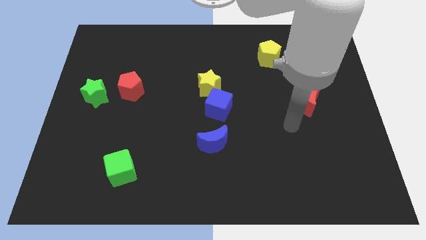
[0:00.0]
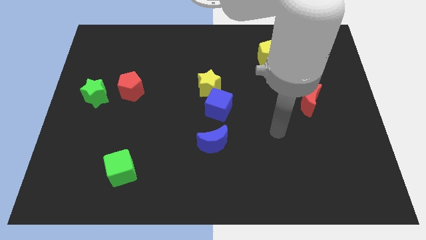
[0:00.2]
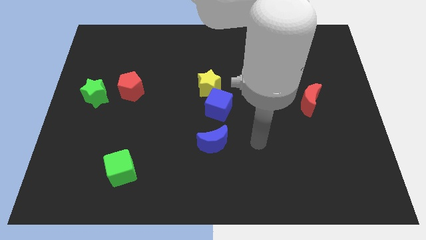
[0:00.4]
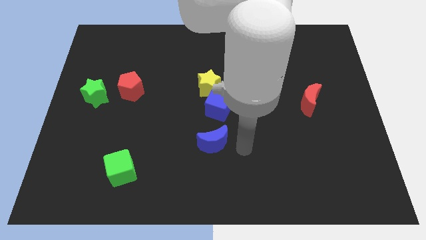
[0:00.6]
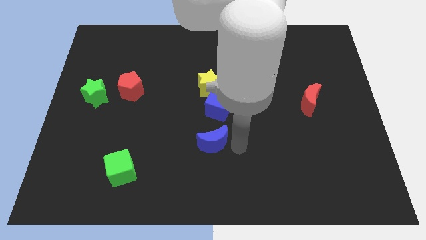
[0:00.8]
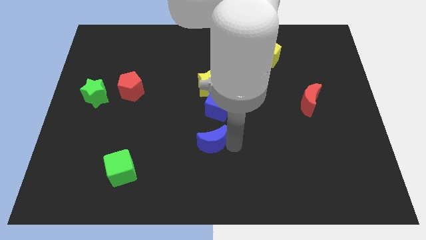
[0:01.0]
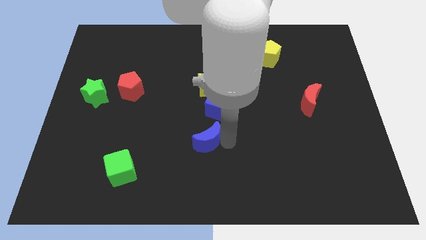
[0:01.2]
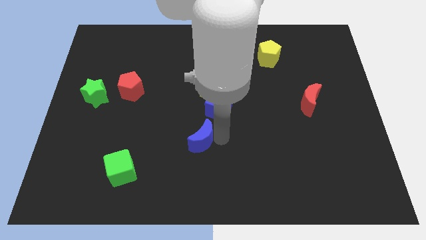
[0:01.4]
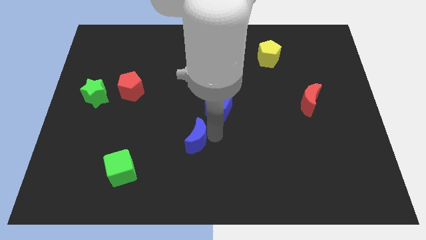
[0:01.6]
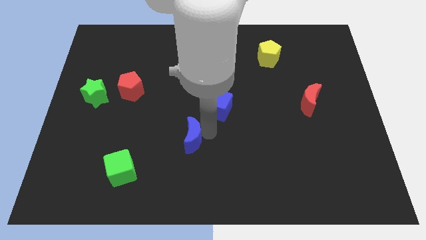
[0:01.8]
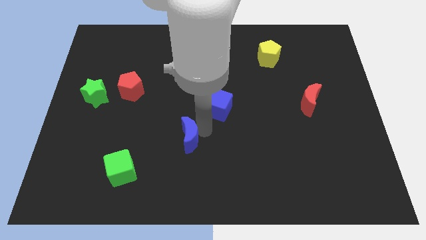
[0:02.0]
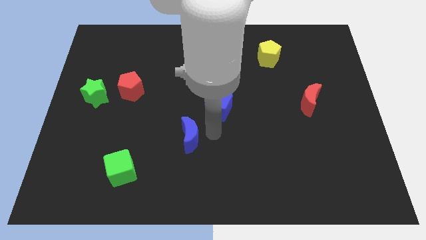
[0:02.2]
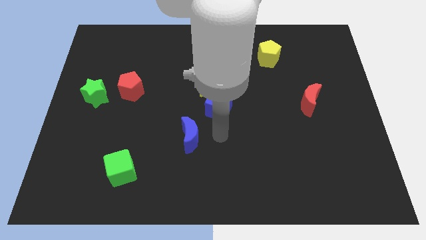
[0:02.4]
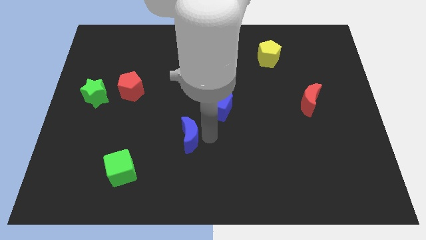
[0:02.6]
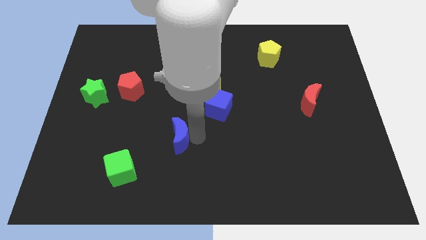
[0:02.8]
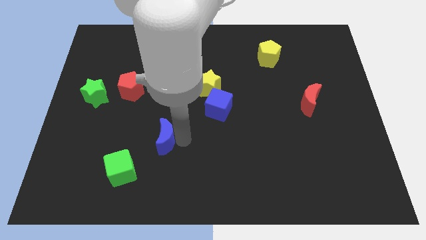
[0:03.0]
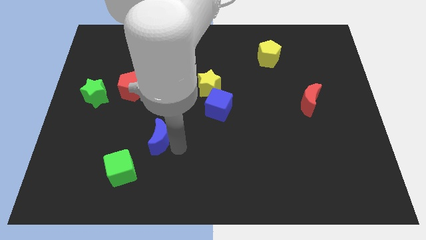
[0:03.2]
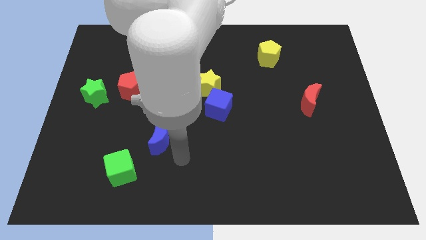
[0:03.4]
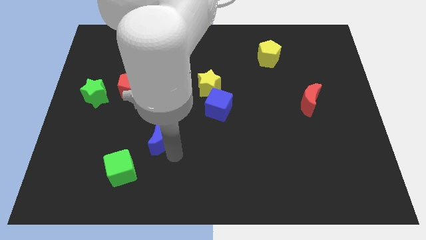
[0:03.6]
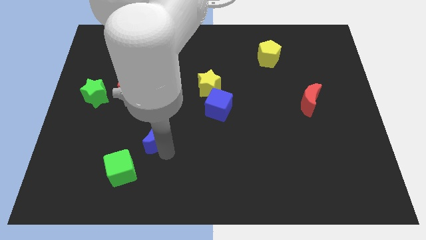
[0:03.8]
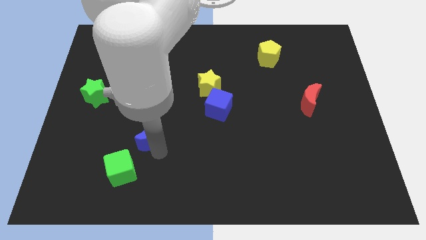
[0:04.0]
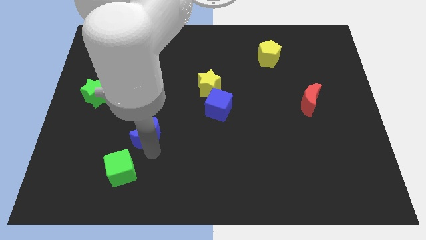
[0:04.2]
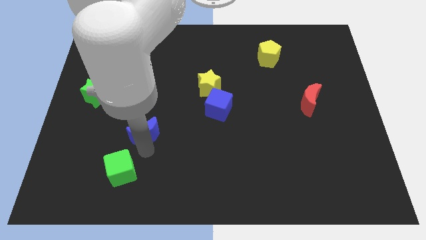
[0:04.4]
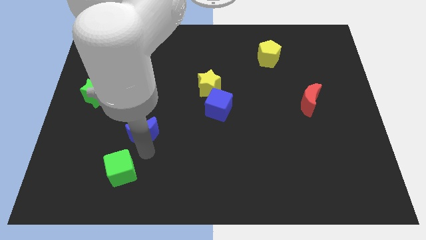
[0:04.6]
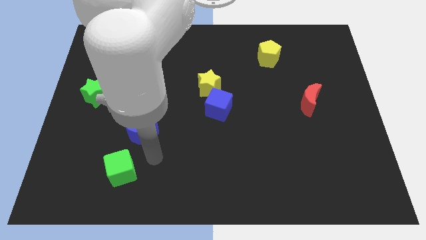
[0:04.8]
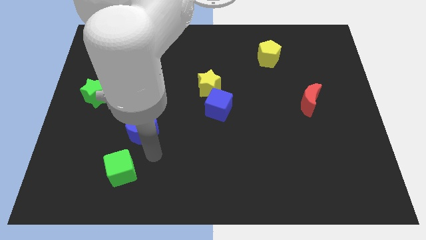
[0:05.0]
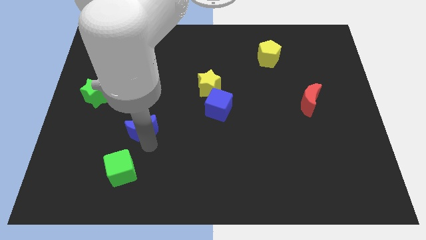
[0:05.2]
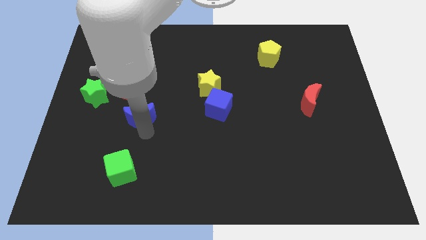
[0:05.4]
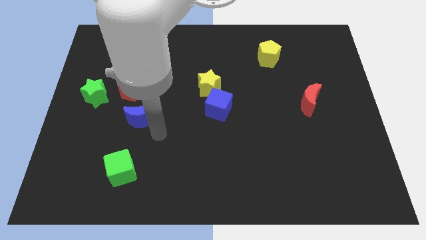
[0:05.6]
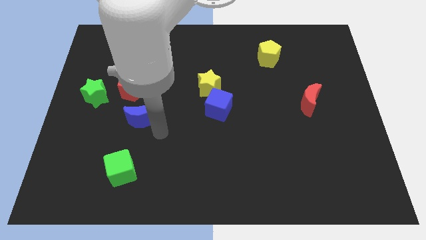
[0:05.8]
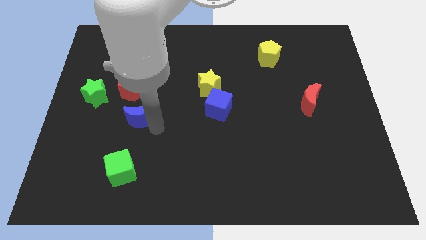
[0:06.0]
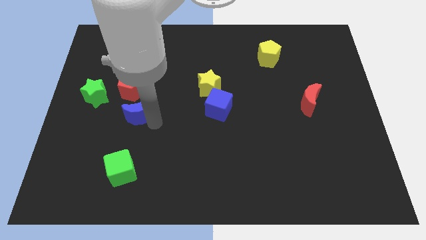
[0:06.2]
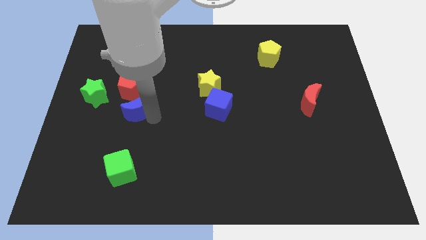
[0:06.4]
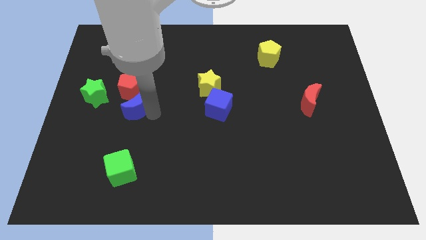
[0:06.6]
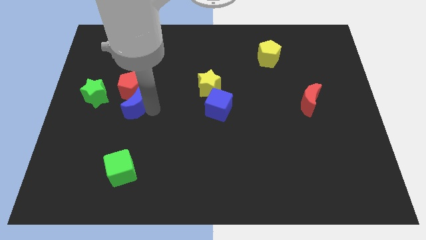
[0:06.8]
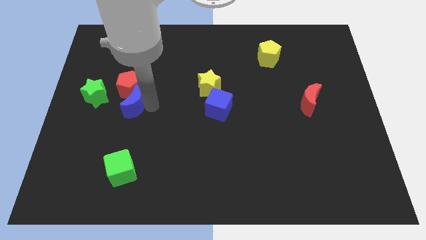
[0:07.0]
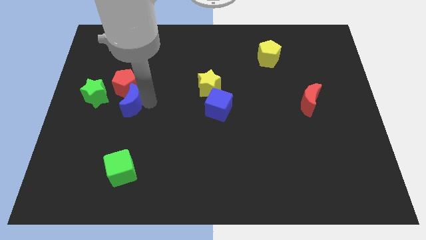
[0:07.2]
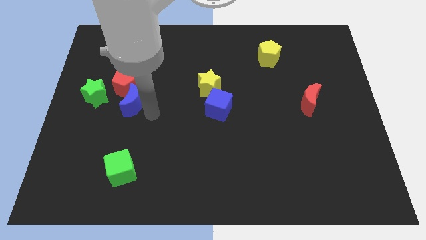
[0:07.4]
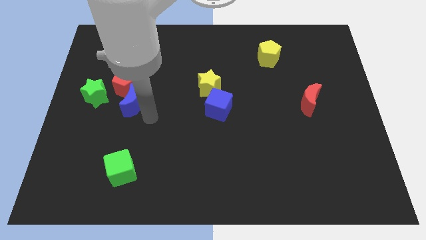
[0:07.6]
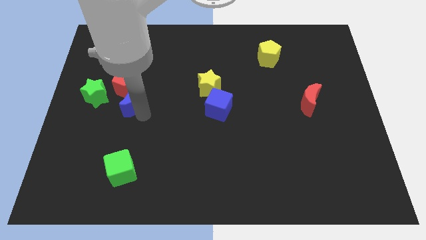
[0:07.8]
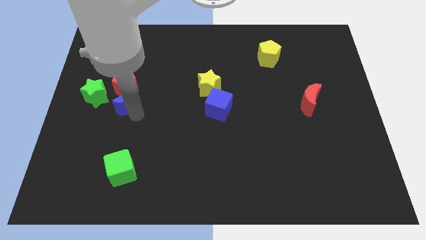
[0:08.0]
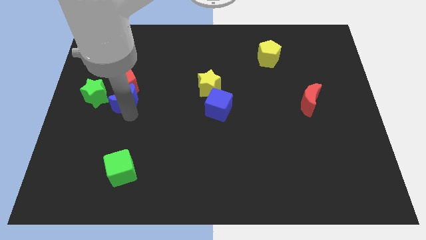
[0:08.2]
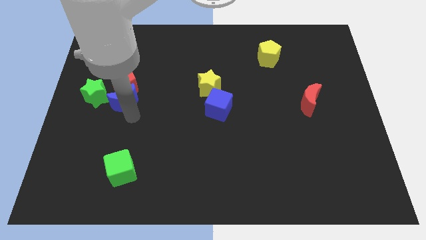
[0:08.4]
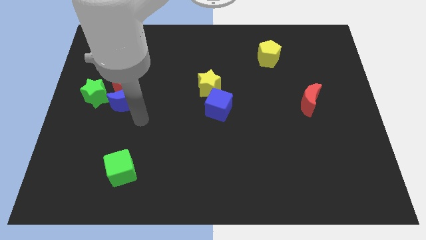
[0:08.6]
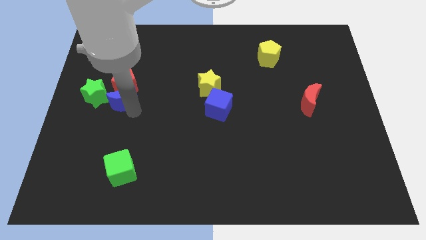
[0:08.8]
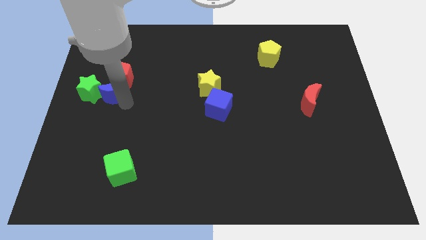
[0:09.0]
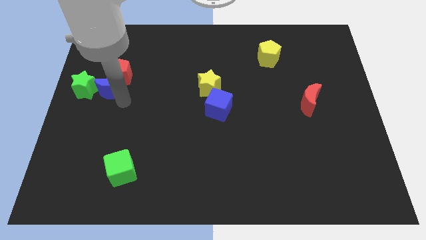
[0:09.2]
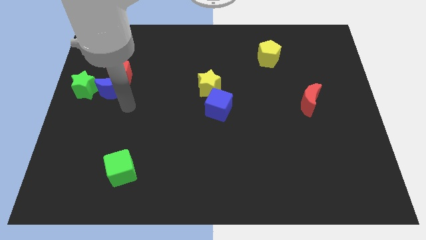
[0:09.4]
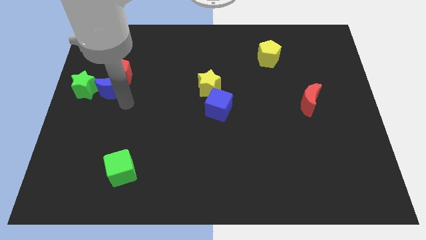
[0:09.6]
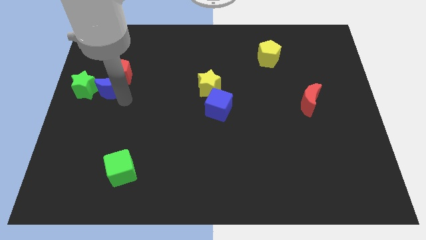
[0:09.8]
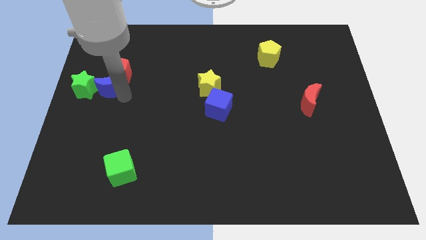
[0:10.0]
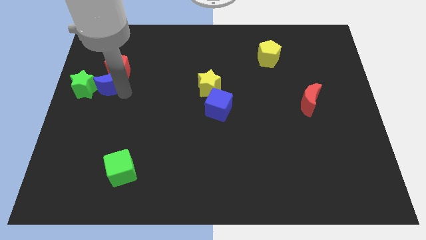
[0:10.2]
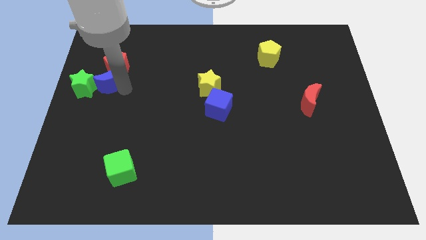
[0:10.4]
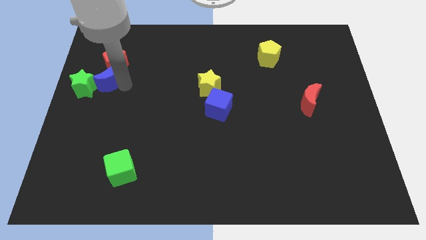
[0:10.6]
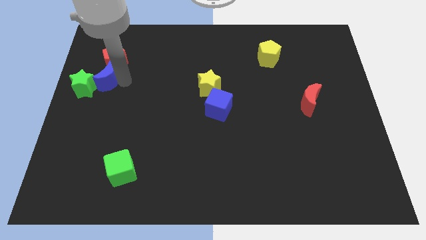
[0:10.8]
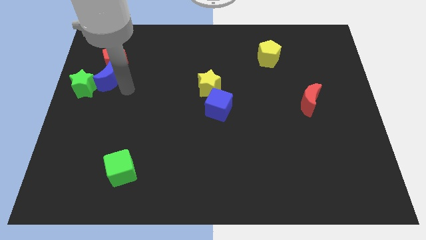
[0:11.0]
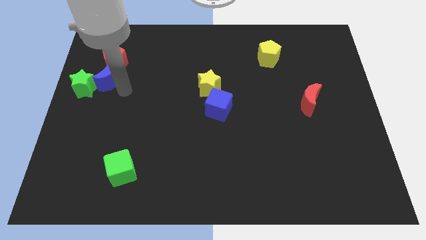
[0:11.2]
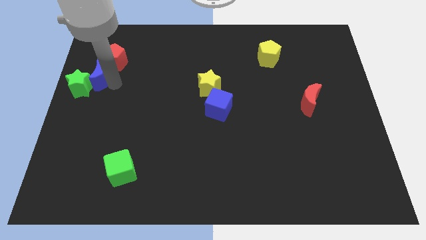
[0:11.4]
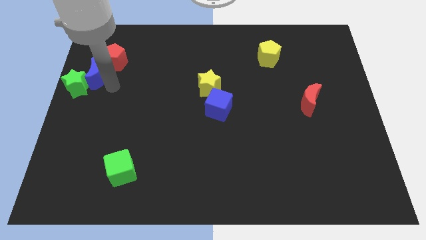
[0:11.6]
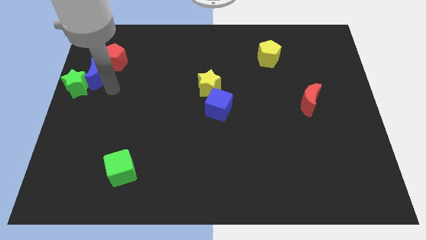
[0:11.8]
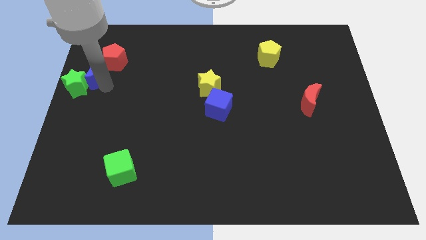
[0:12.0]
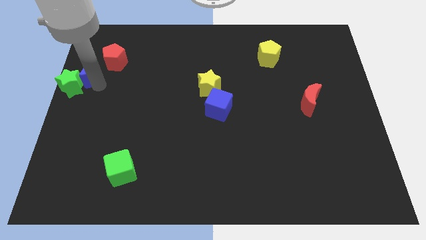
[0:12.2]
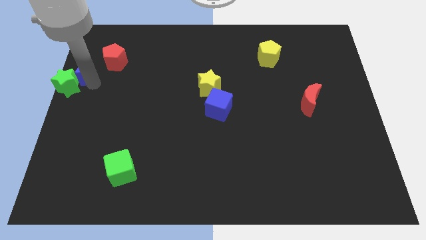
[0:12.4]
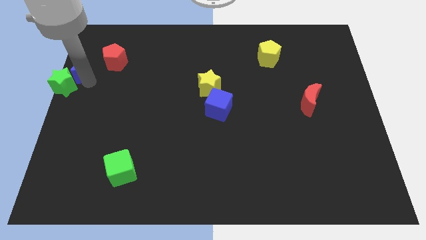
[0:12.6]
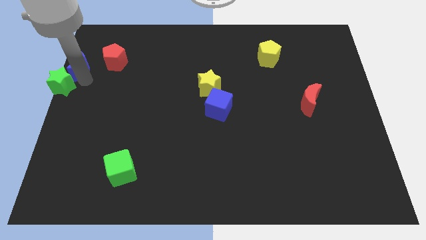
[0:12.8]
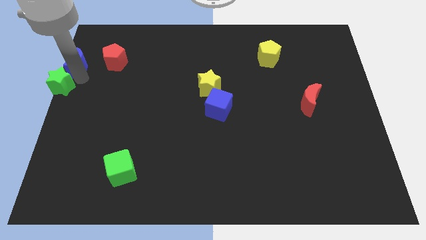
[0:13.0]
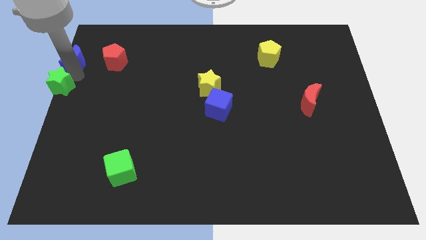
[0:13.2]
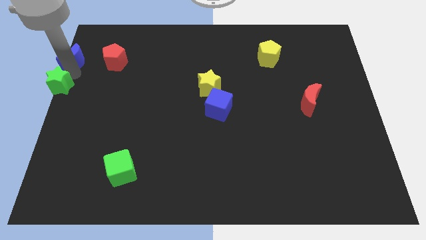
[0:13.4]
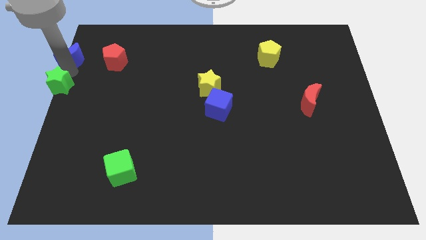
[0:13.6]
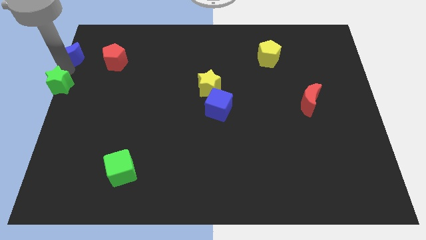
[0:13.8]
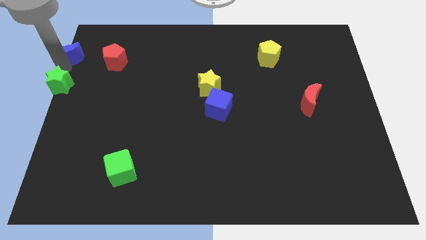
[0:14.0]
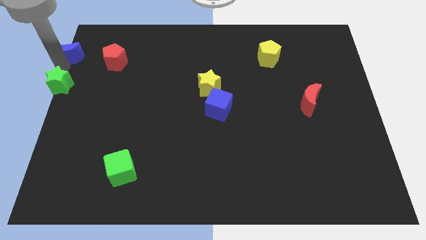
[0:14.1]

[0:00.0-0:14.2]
push the blue moon to the top left

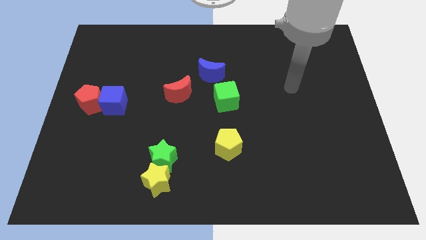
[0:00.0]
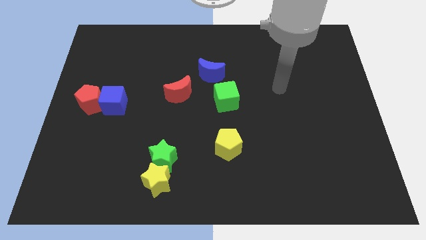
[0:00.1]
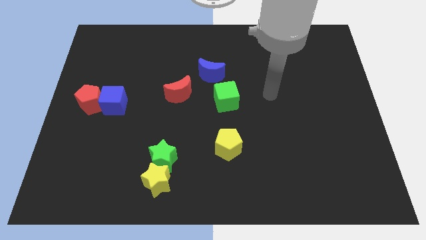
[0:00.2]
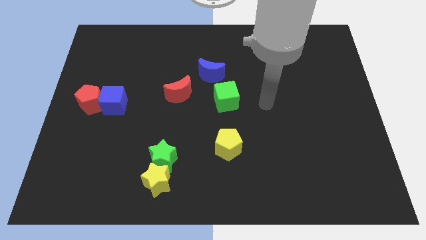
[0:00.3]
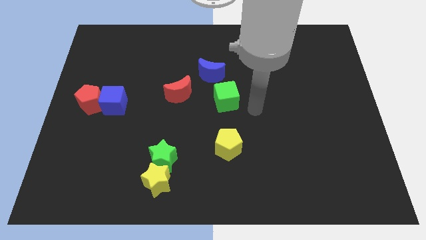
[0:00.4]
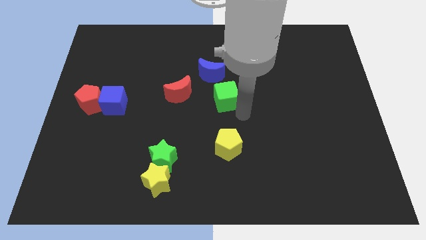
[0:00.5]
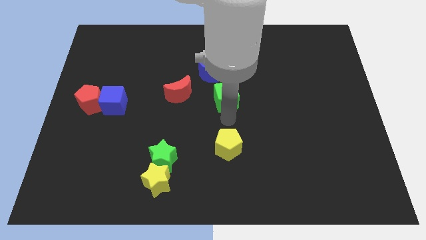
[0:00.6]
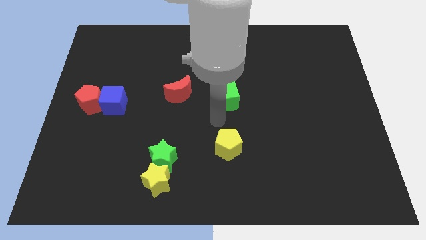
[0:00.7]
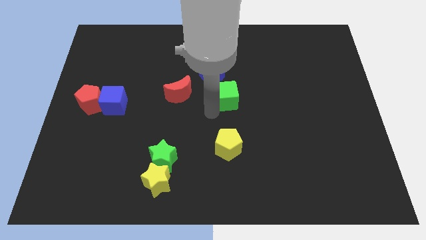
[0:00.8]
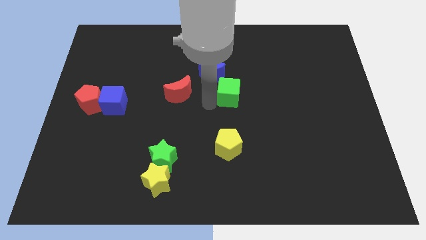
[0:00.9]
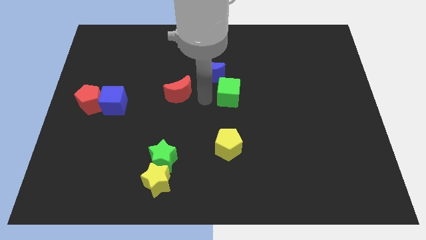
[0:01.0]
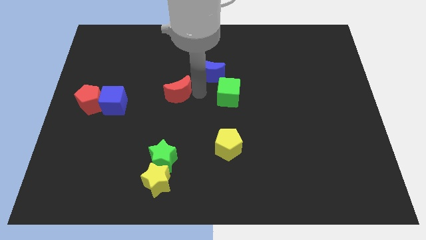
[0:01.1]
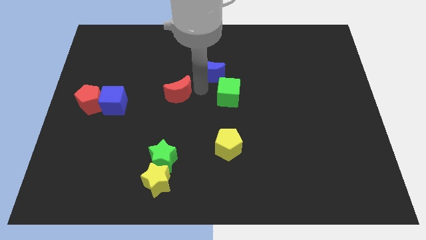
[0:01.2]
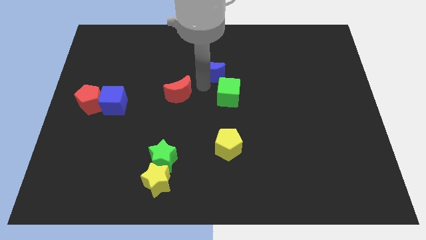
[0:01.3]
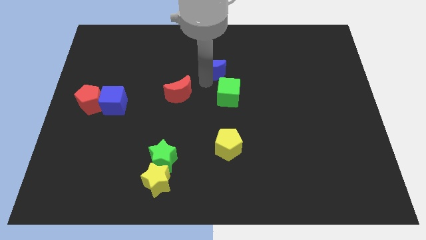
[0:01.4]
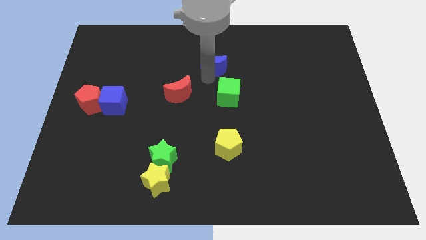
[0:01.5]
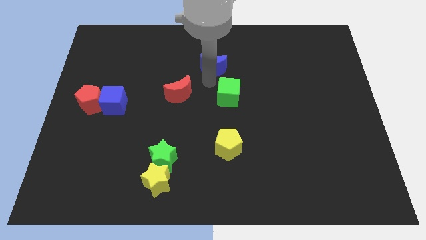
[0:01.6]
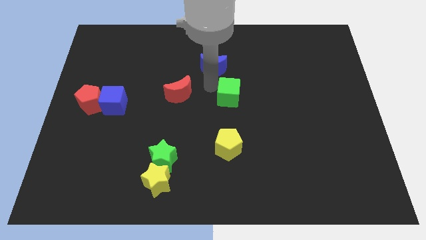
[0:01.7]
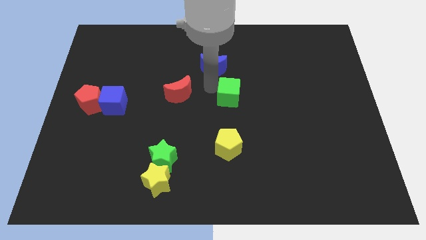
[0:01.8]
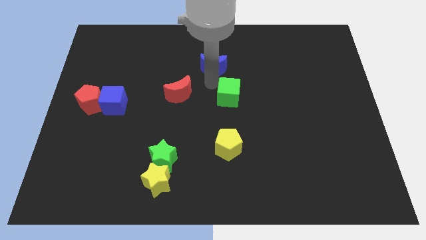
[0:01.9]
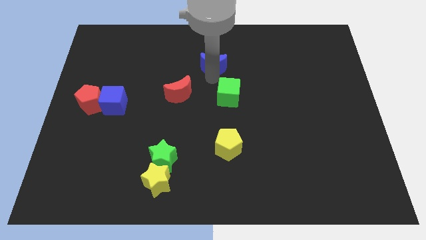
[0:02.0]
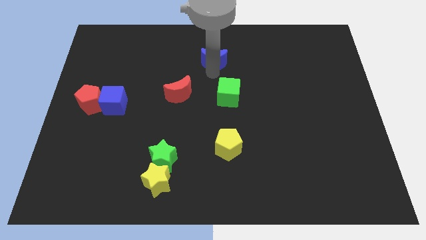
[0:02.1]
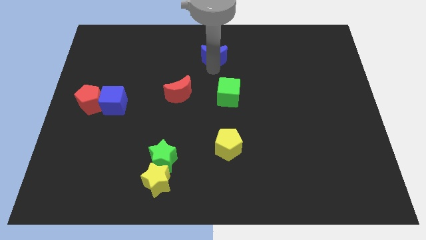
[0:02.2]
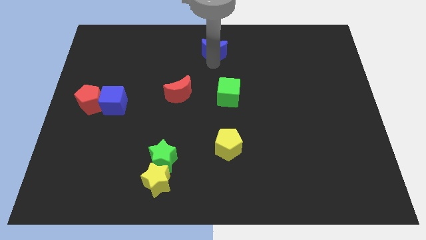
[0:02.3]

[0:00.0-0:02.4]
move the blue moon to the top side
